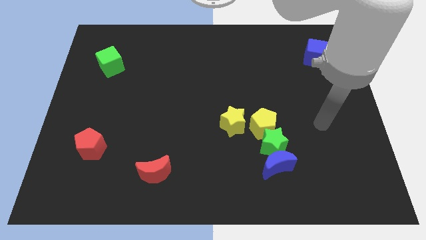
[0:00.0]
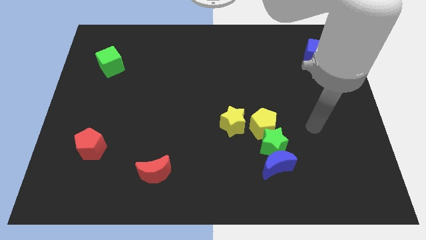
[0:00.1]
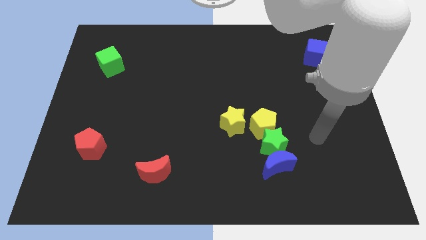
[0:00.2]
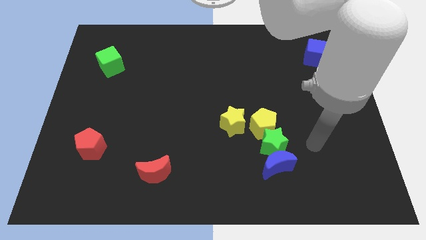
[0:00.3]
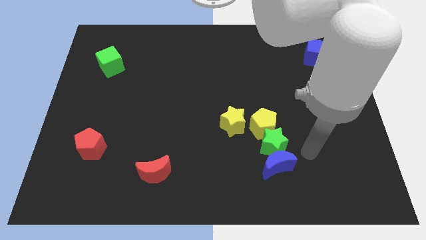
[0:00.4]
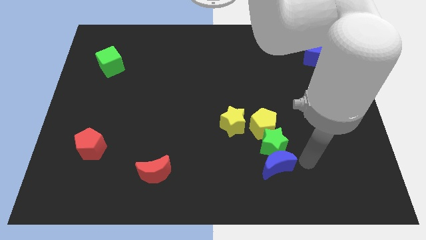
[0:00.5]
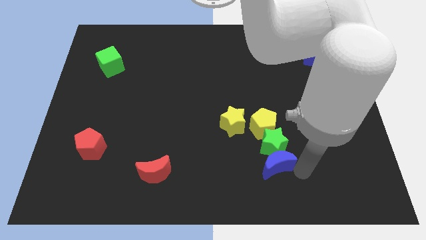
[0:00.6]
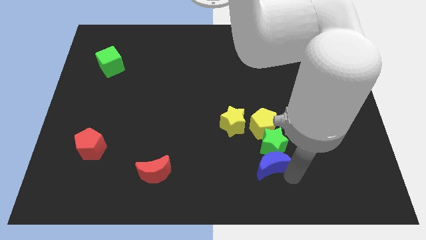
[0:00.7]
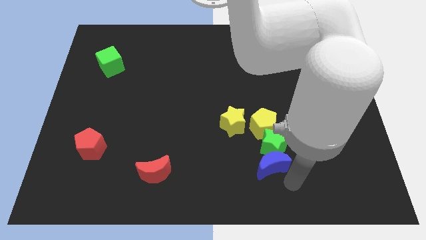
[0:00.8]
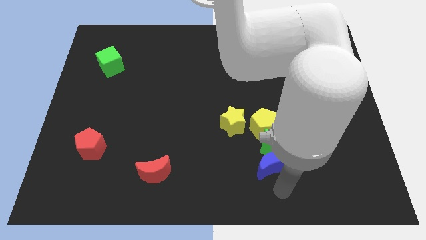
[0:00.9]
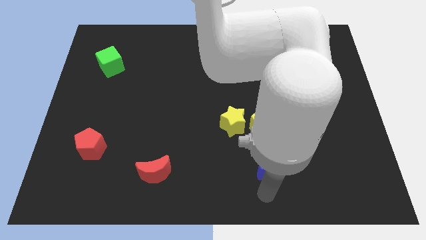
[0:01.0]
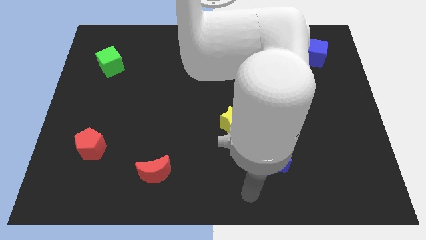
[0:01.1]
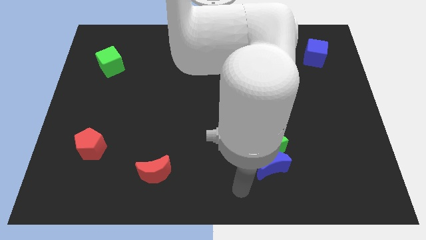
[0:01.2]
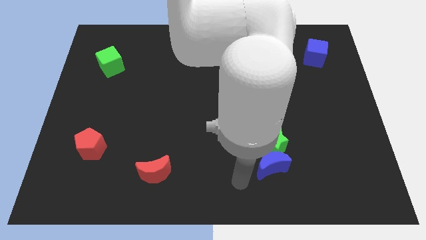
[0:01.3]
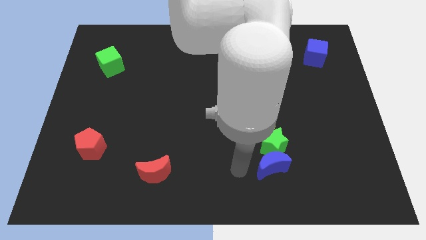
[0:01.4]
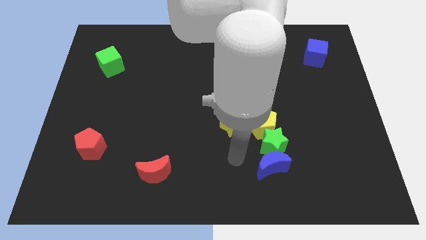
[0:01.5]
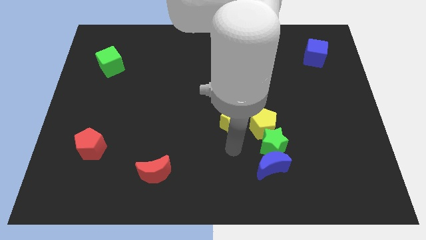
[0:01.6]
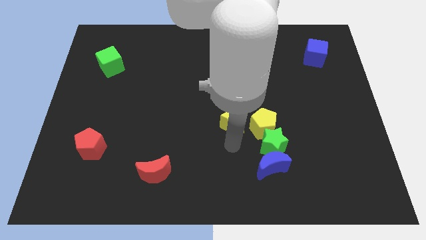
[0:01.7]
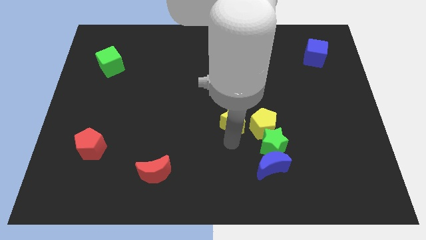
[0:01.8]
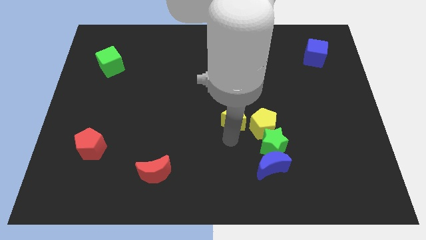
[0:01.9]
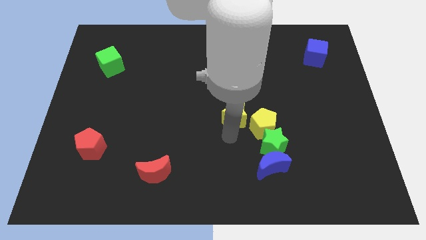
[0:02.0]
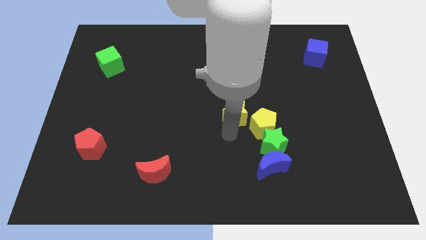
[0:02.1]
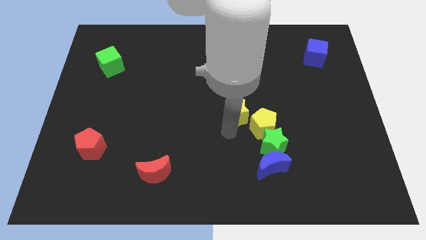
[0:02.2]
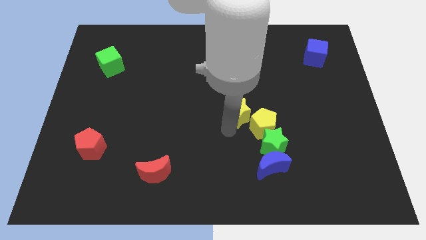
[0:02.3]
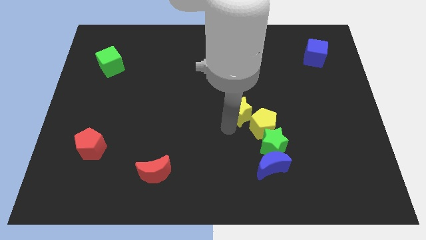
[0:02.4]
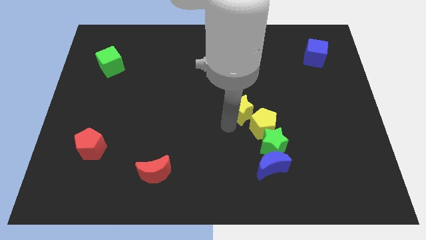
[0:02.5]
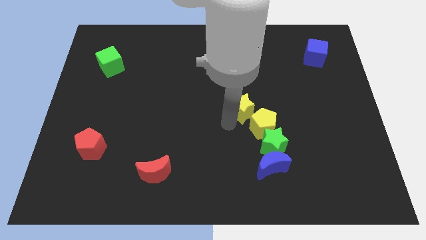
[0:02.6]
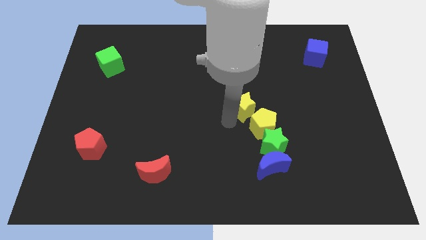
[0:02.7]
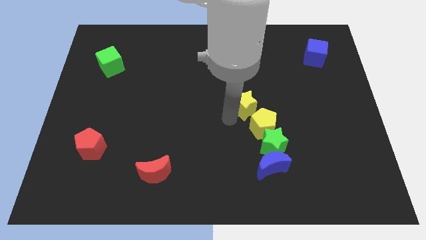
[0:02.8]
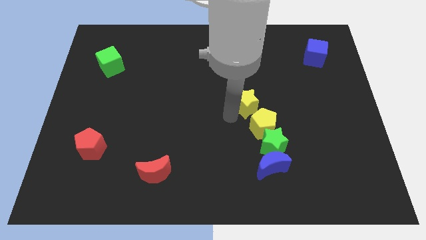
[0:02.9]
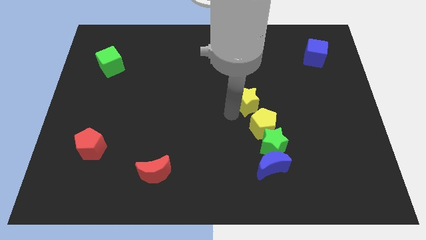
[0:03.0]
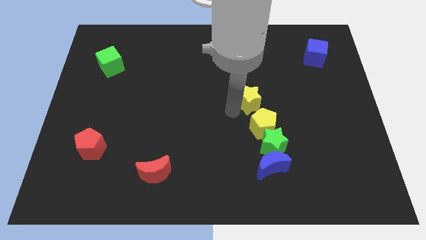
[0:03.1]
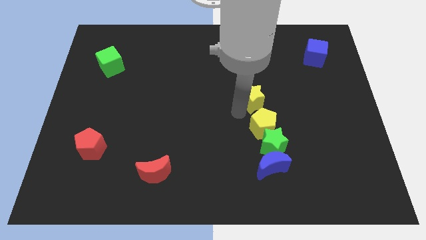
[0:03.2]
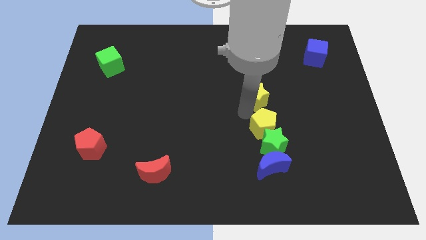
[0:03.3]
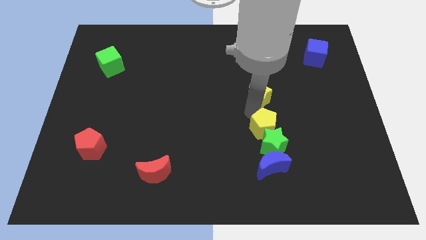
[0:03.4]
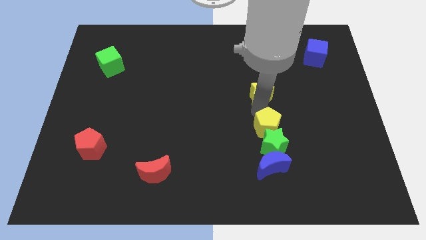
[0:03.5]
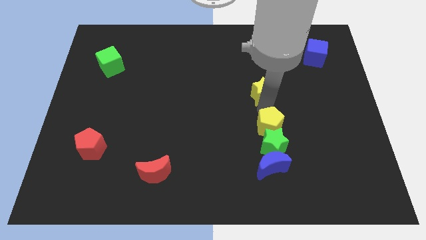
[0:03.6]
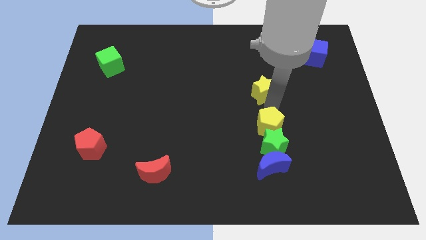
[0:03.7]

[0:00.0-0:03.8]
slide the yellow star up somewhat

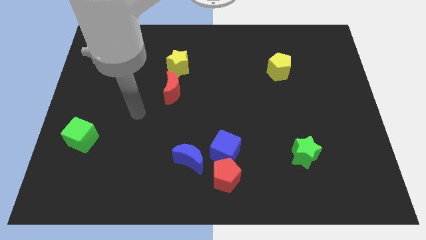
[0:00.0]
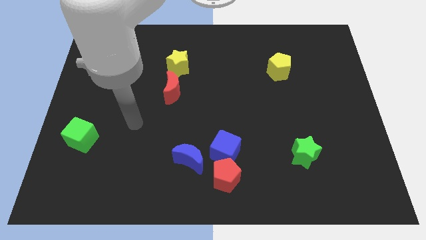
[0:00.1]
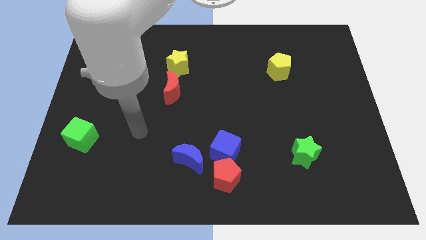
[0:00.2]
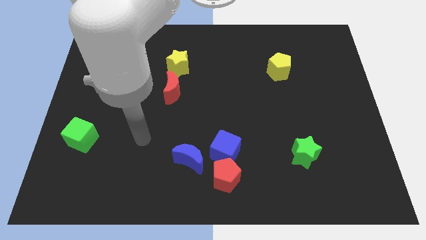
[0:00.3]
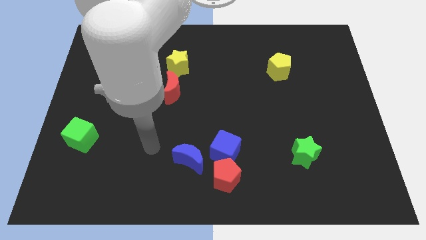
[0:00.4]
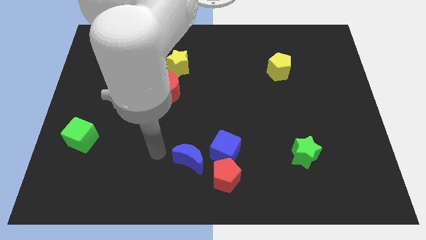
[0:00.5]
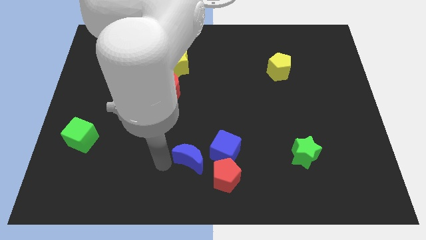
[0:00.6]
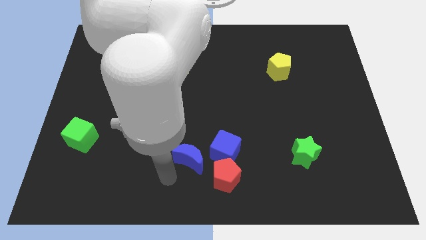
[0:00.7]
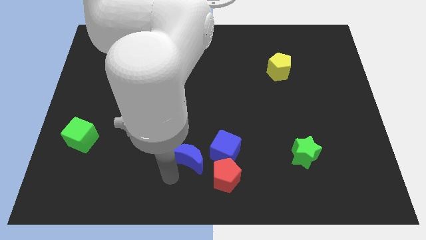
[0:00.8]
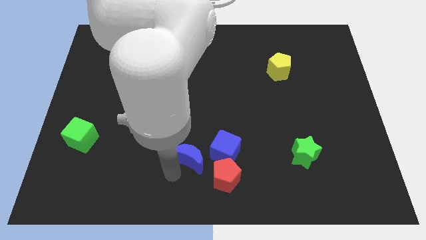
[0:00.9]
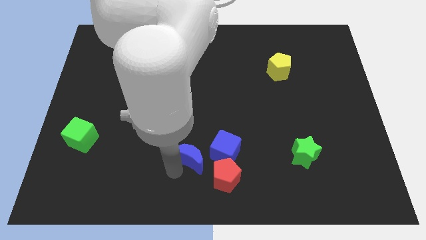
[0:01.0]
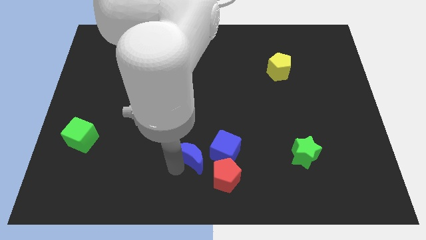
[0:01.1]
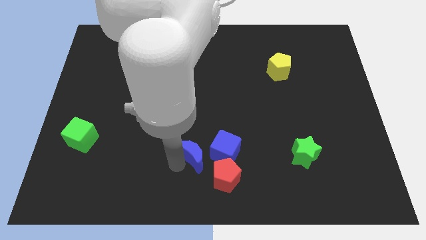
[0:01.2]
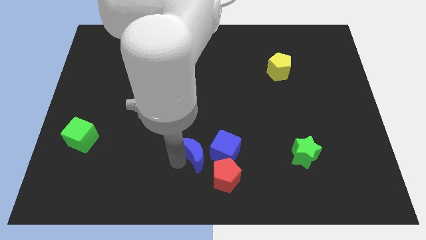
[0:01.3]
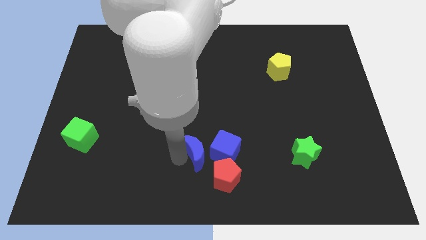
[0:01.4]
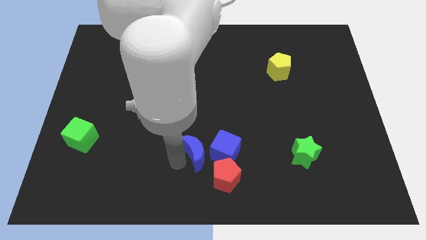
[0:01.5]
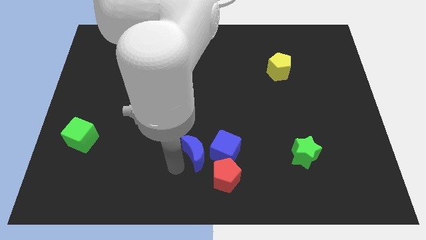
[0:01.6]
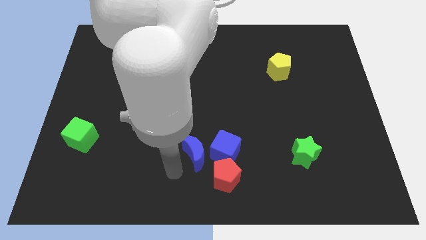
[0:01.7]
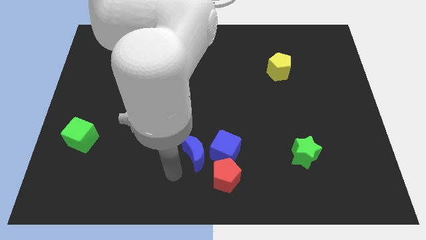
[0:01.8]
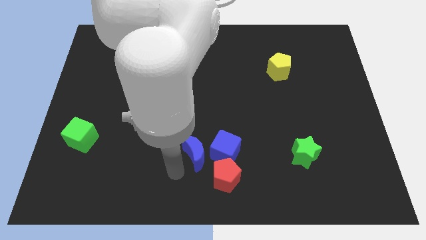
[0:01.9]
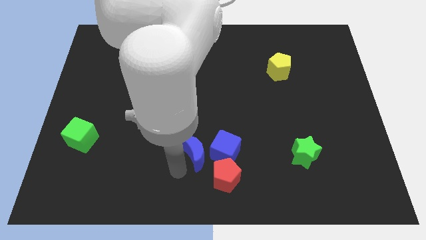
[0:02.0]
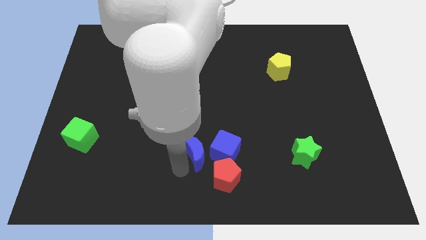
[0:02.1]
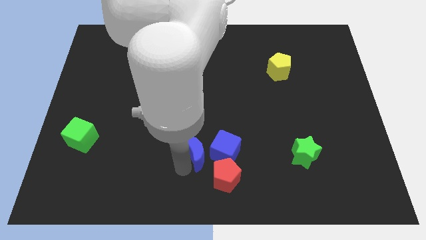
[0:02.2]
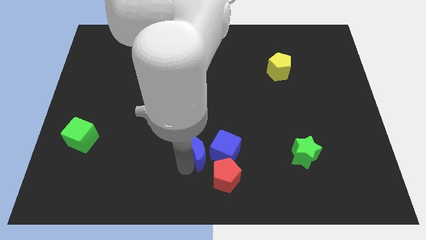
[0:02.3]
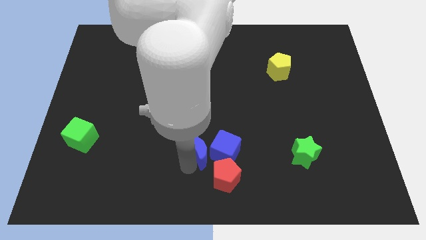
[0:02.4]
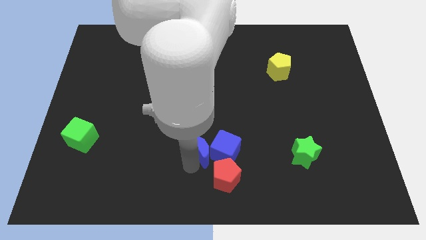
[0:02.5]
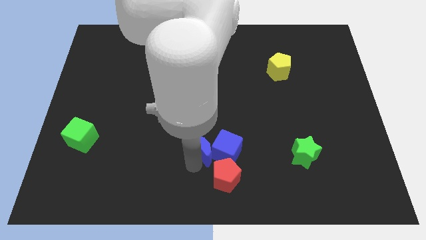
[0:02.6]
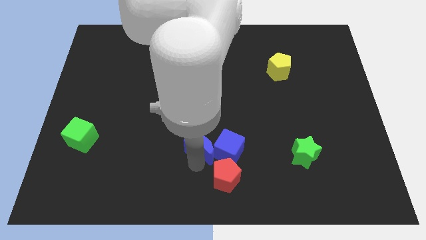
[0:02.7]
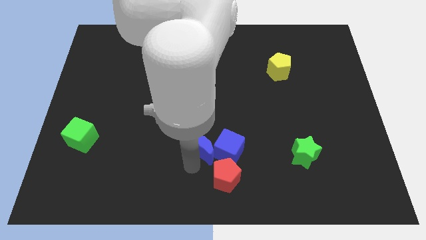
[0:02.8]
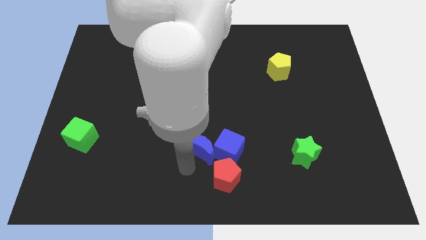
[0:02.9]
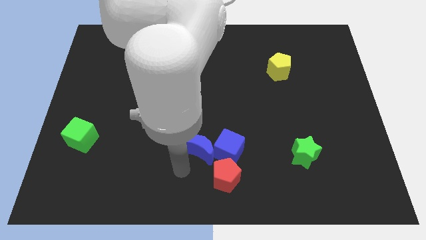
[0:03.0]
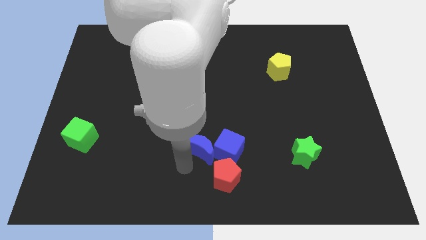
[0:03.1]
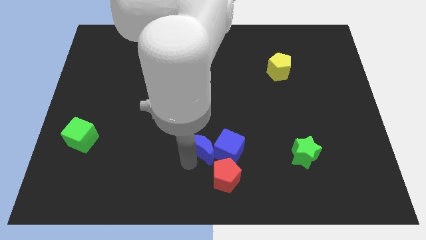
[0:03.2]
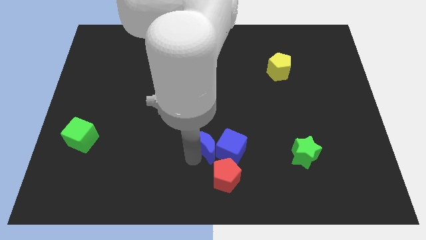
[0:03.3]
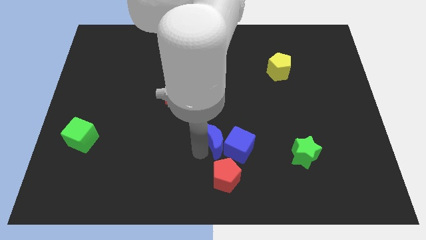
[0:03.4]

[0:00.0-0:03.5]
push the blue moon a little bit up and then to the right

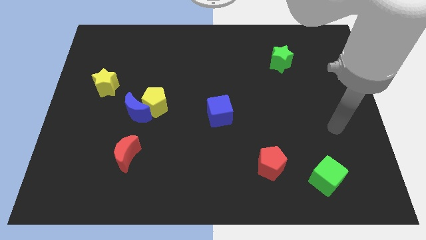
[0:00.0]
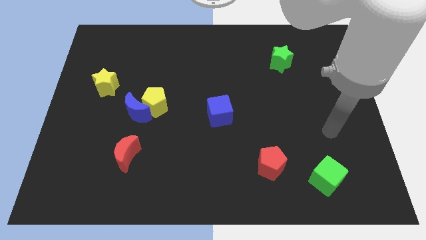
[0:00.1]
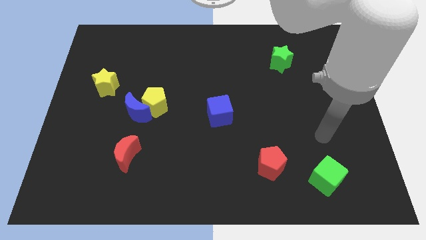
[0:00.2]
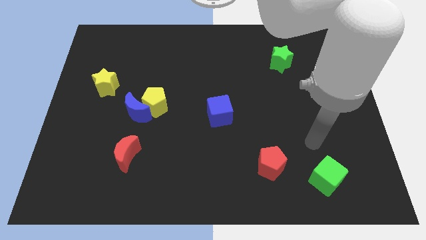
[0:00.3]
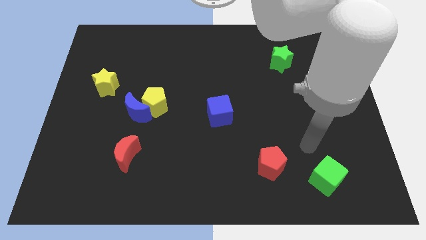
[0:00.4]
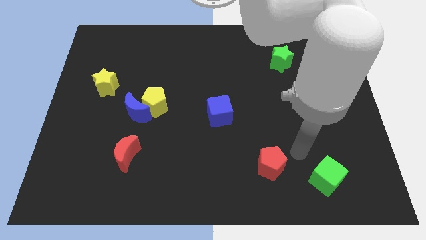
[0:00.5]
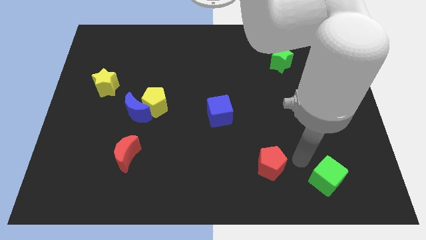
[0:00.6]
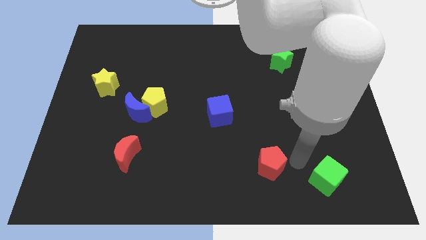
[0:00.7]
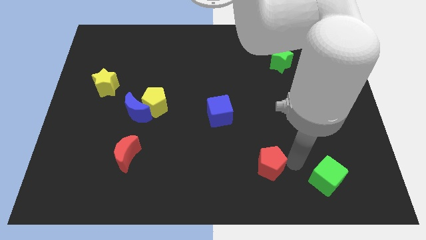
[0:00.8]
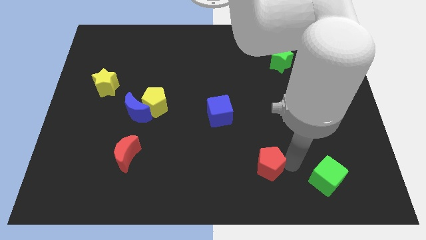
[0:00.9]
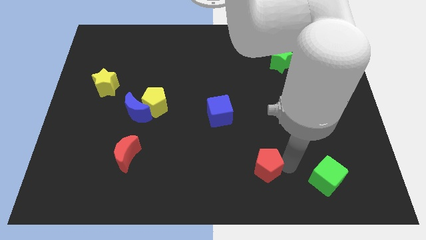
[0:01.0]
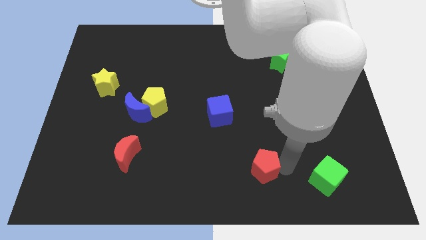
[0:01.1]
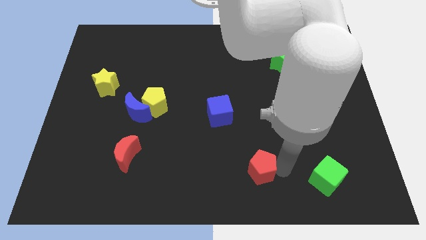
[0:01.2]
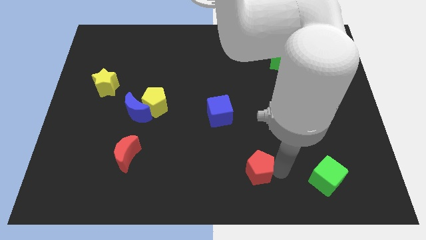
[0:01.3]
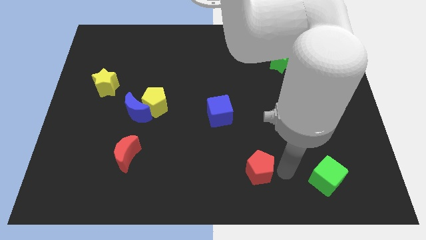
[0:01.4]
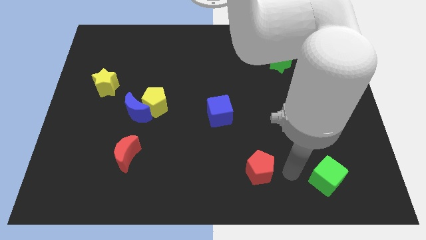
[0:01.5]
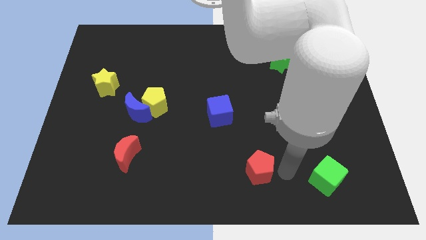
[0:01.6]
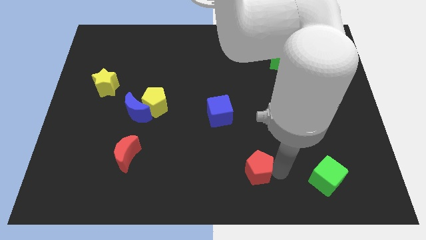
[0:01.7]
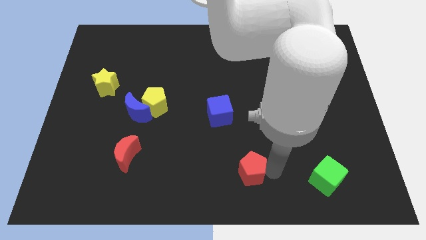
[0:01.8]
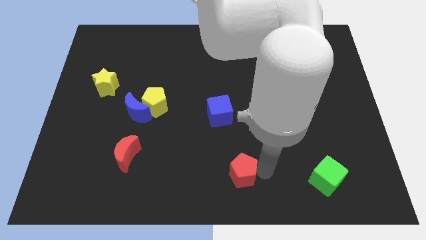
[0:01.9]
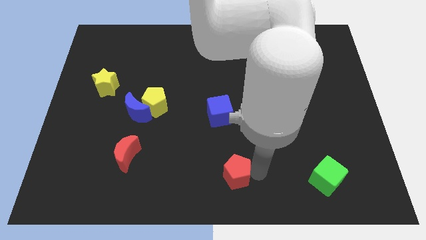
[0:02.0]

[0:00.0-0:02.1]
slightly move the red pentagon left
